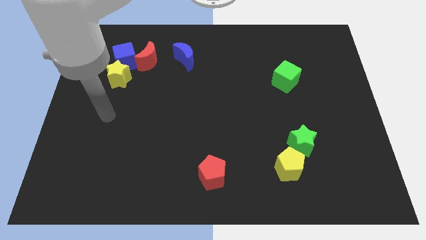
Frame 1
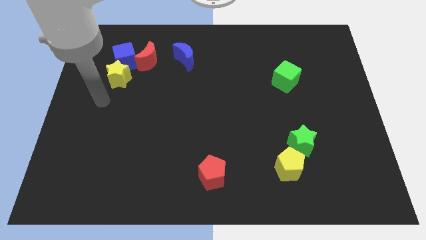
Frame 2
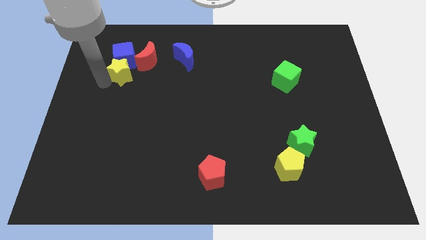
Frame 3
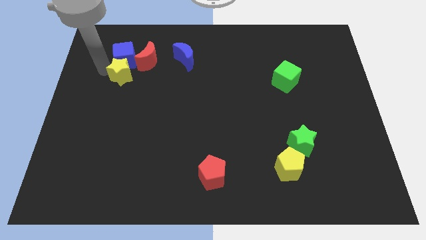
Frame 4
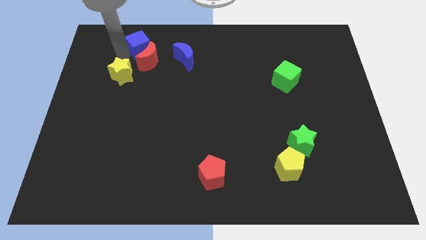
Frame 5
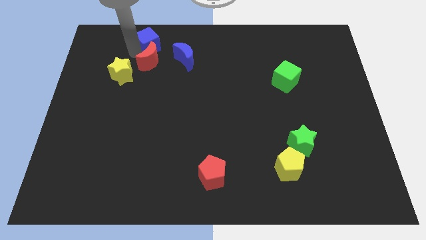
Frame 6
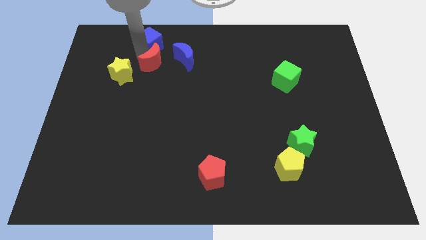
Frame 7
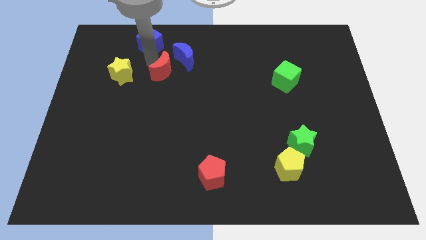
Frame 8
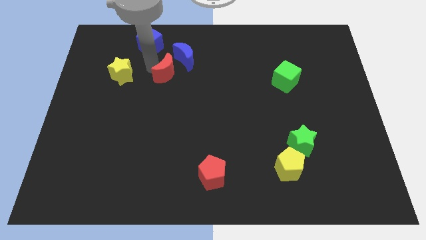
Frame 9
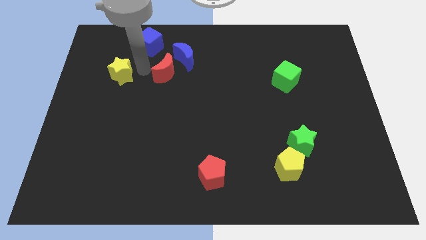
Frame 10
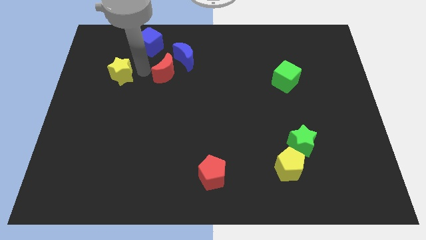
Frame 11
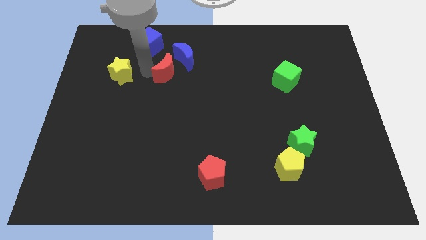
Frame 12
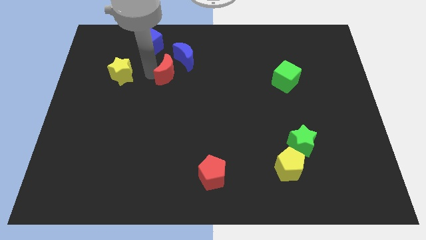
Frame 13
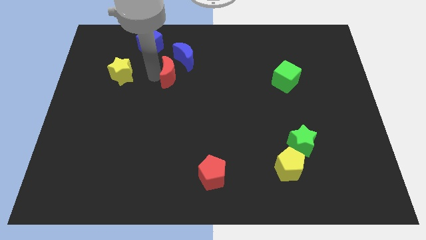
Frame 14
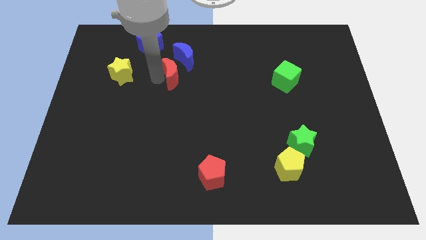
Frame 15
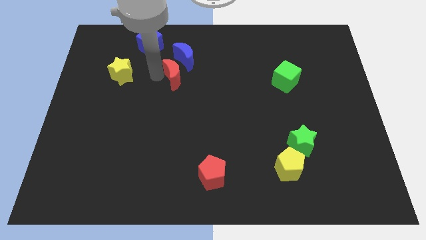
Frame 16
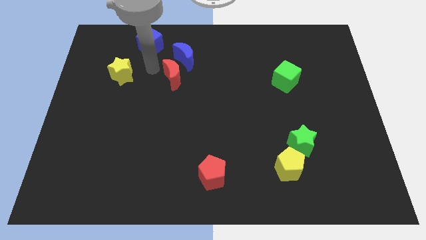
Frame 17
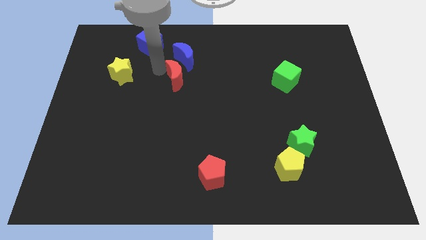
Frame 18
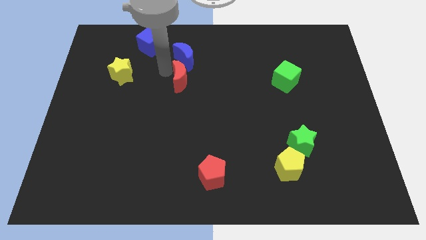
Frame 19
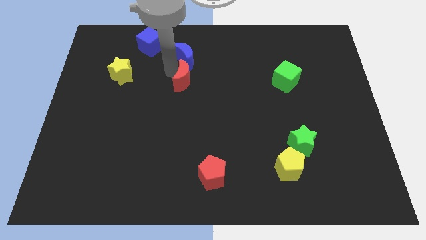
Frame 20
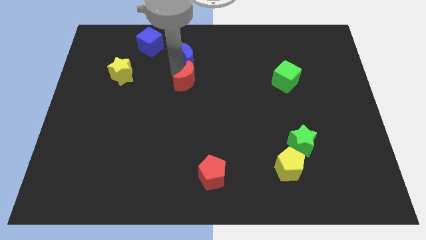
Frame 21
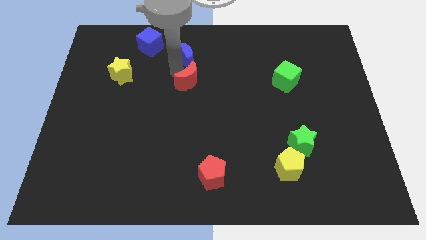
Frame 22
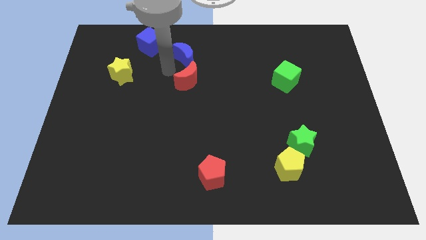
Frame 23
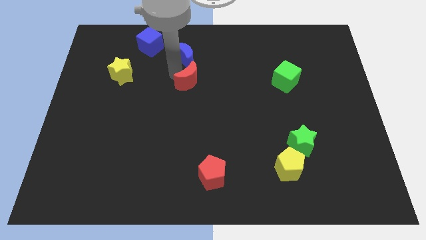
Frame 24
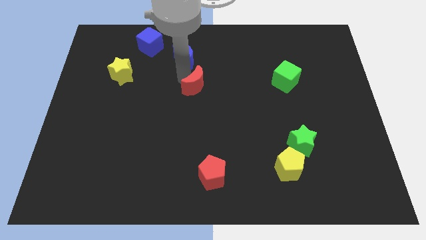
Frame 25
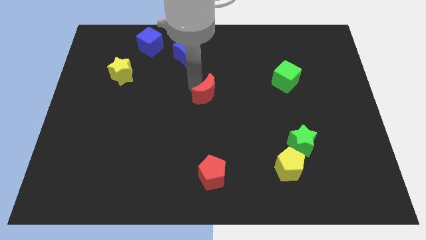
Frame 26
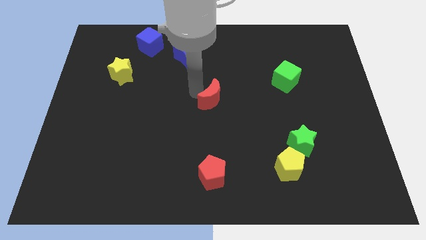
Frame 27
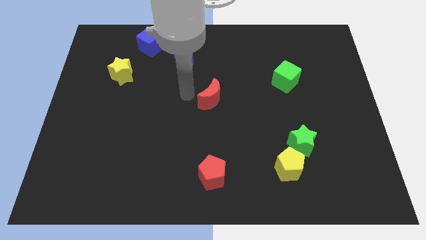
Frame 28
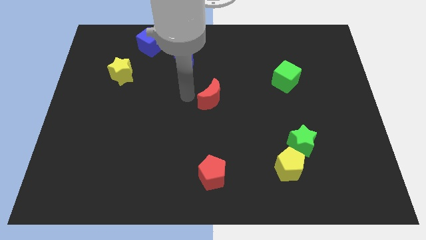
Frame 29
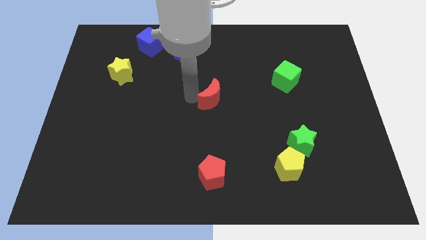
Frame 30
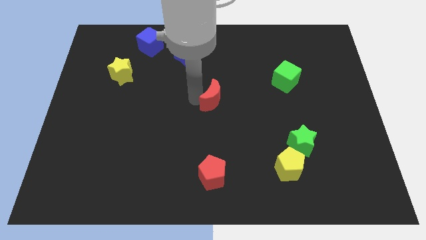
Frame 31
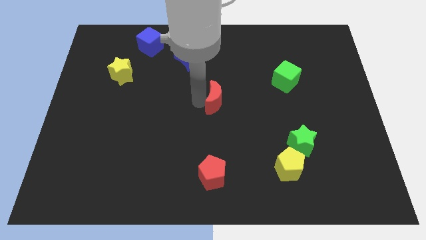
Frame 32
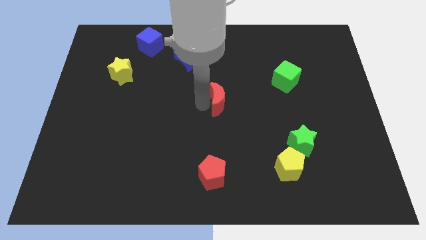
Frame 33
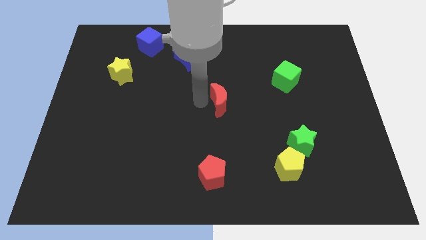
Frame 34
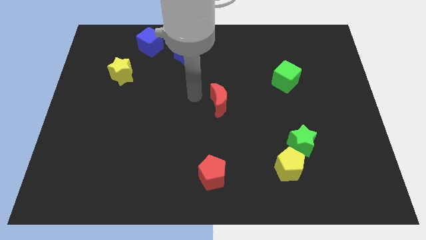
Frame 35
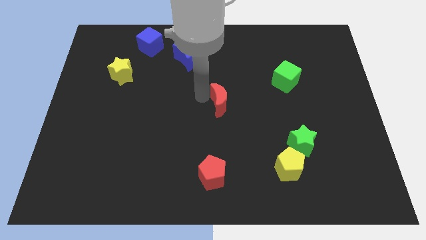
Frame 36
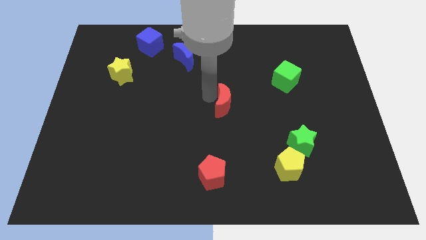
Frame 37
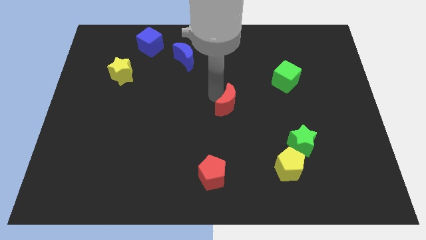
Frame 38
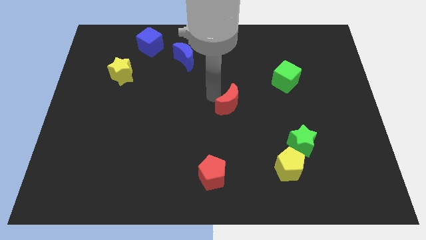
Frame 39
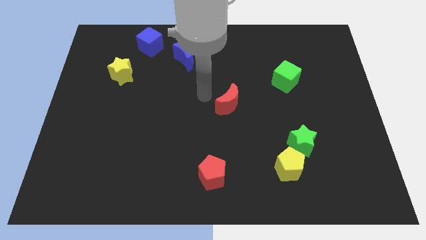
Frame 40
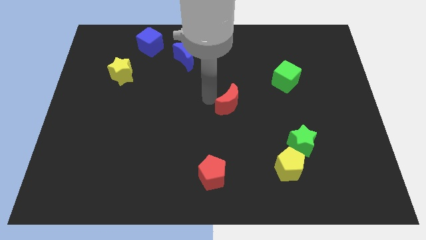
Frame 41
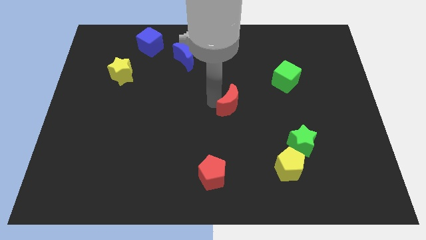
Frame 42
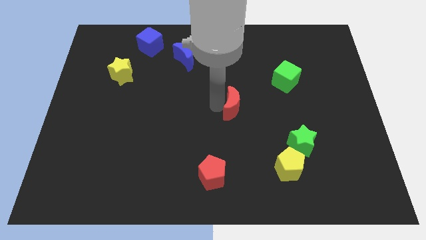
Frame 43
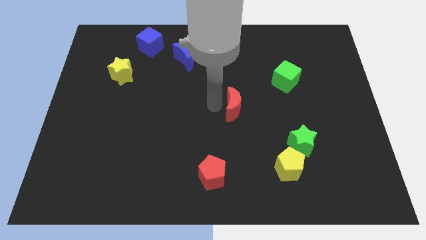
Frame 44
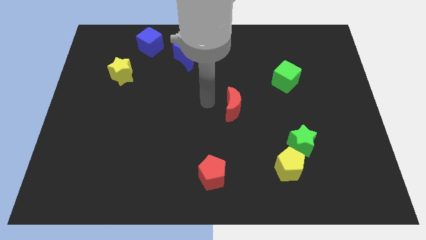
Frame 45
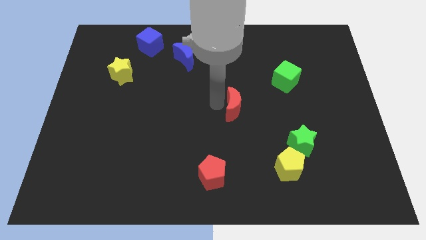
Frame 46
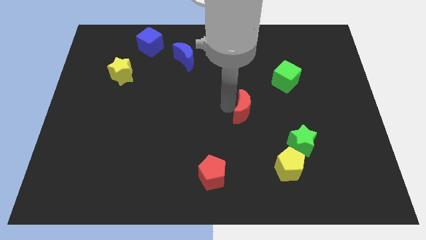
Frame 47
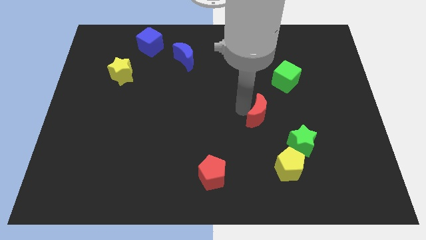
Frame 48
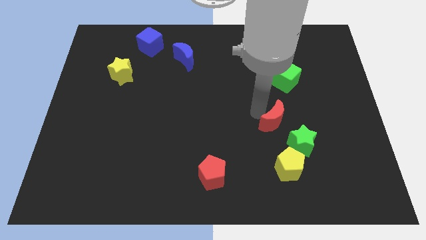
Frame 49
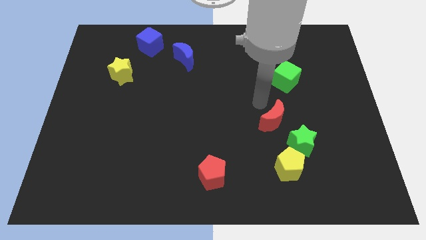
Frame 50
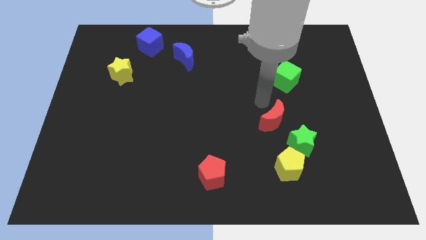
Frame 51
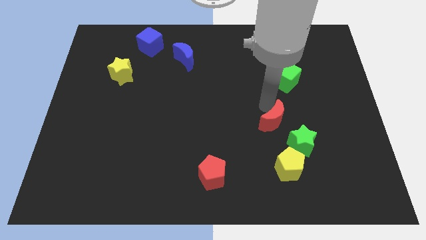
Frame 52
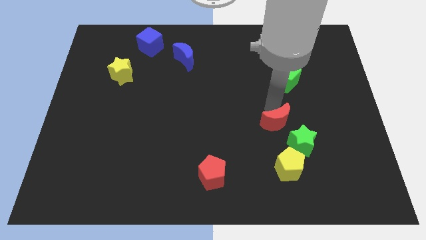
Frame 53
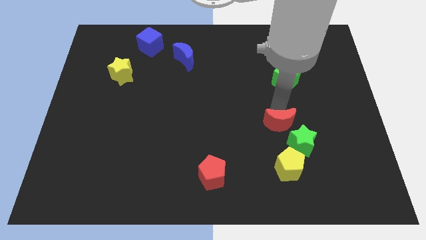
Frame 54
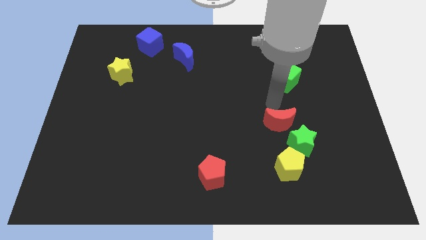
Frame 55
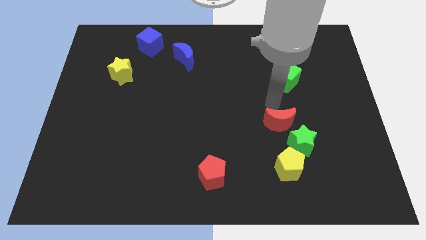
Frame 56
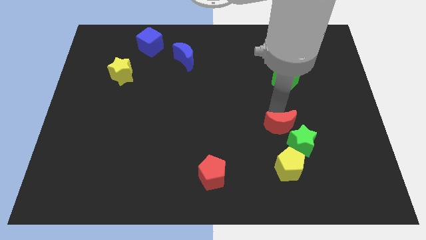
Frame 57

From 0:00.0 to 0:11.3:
move the red moon next to the green star

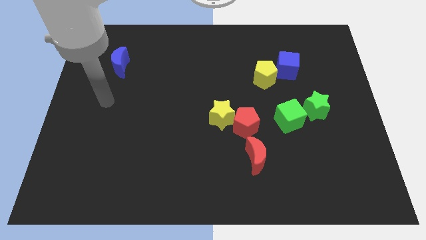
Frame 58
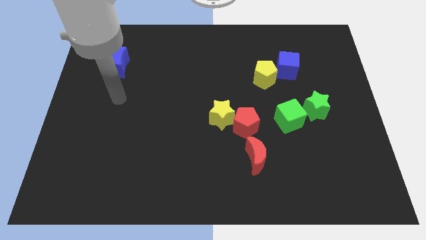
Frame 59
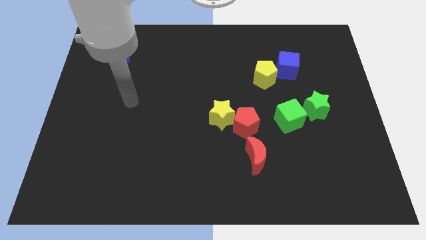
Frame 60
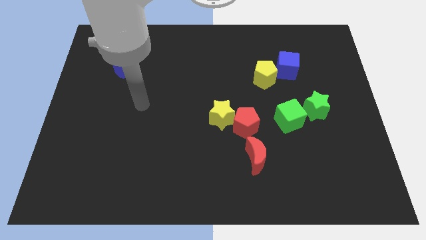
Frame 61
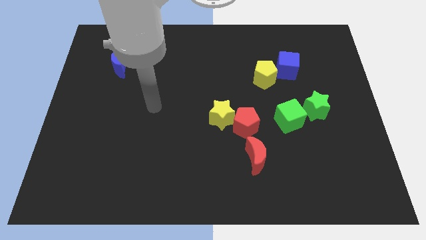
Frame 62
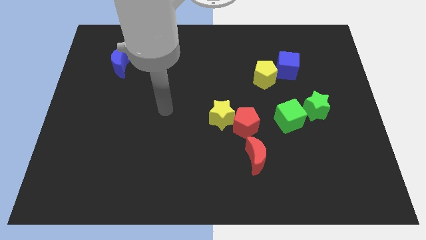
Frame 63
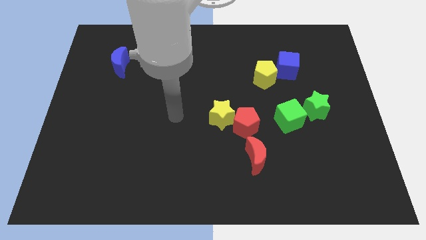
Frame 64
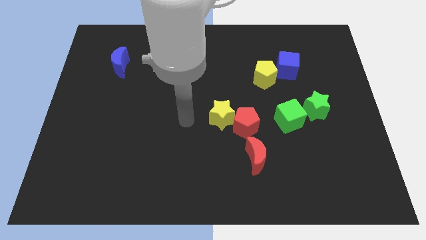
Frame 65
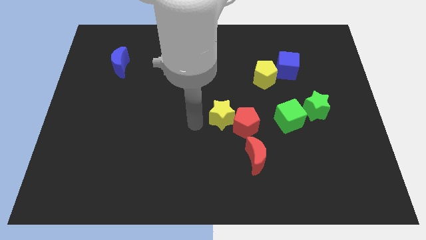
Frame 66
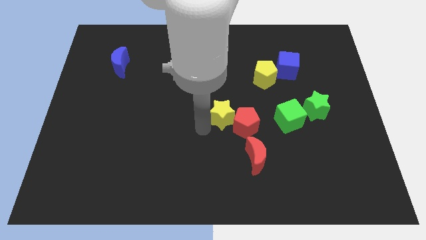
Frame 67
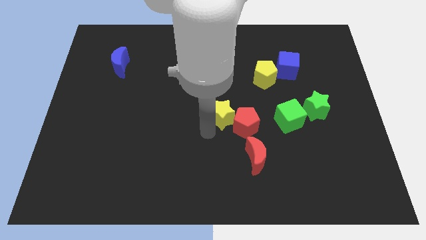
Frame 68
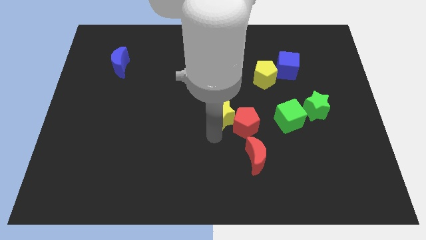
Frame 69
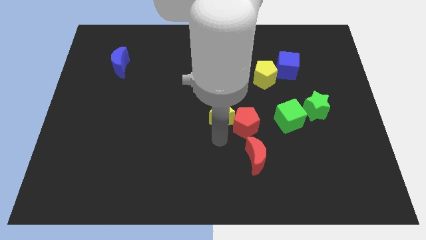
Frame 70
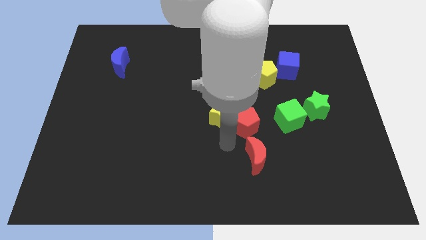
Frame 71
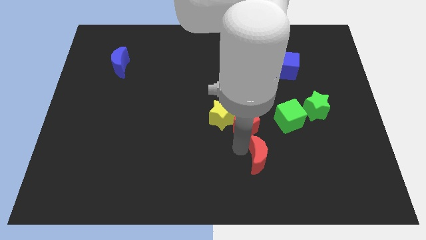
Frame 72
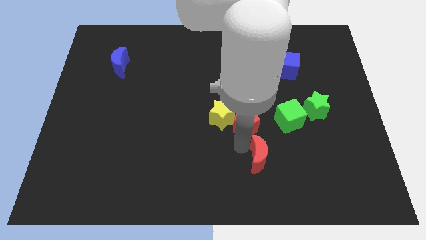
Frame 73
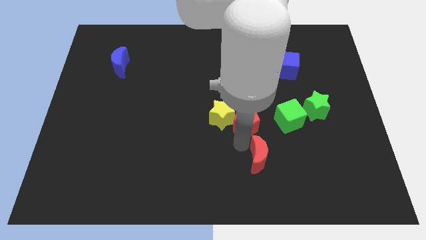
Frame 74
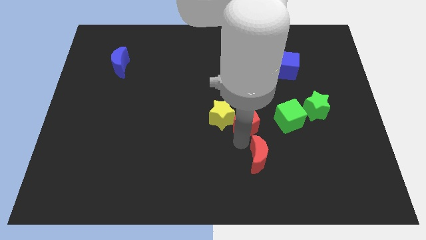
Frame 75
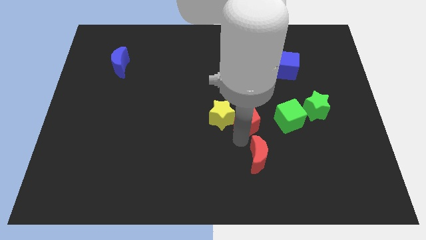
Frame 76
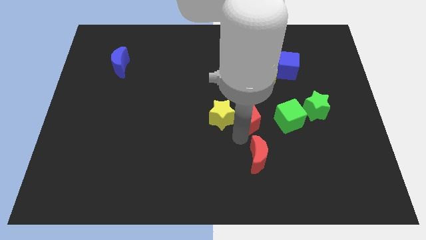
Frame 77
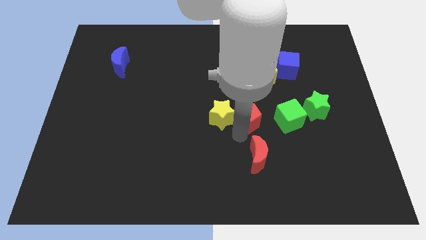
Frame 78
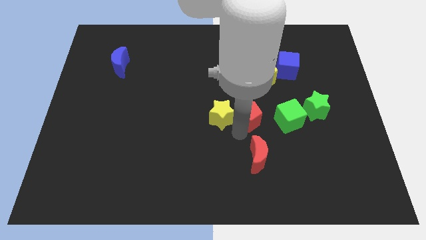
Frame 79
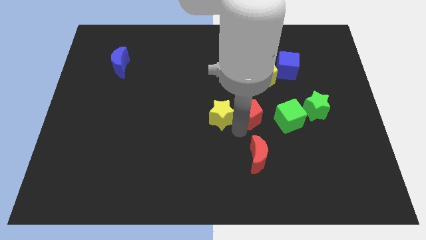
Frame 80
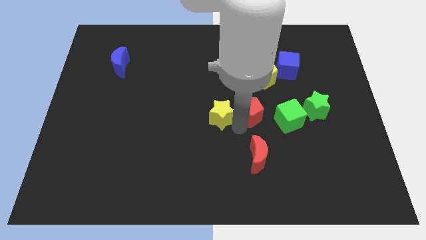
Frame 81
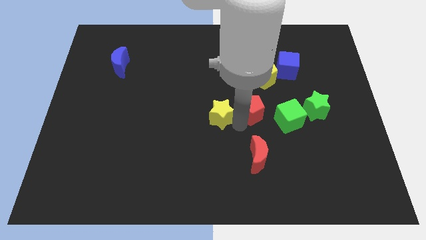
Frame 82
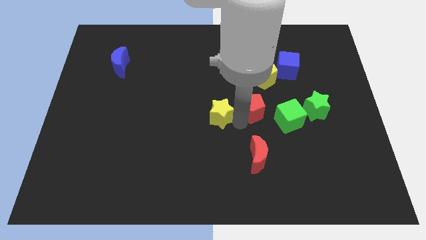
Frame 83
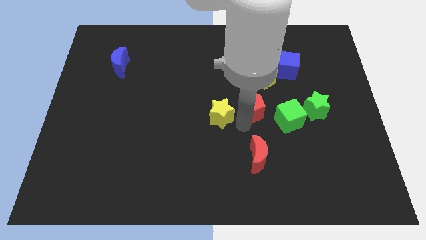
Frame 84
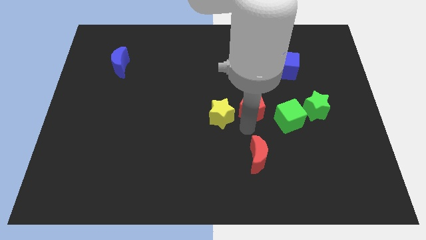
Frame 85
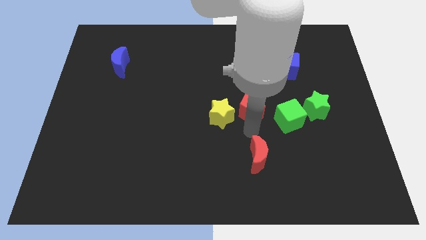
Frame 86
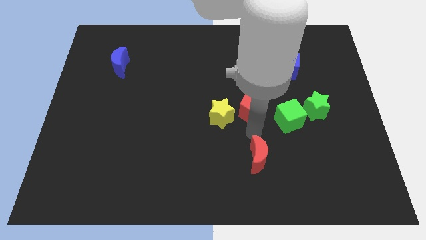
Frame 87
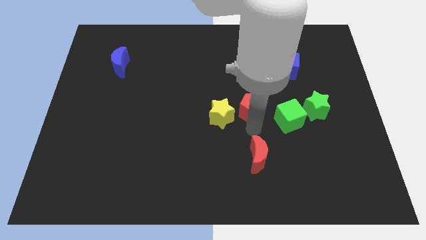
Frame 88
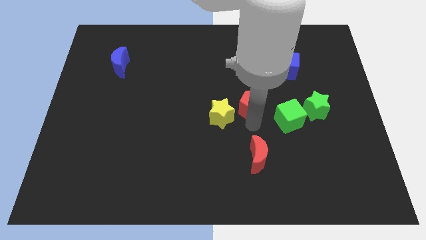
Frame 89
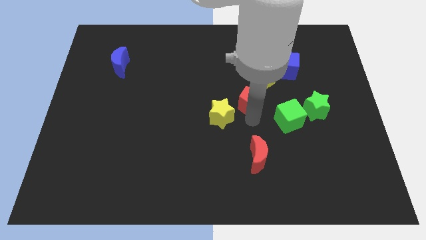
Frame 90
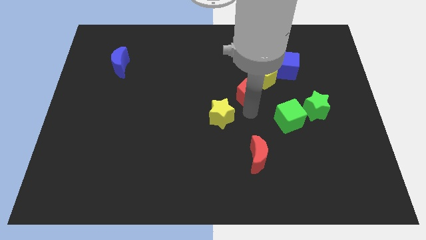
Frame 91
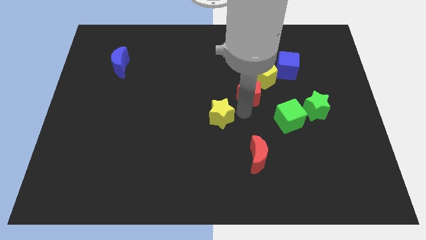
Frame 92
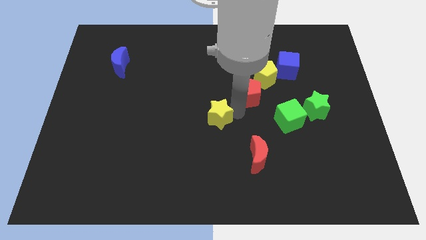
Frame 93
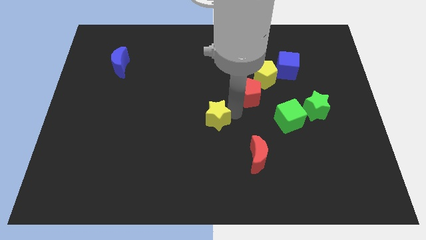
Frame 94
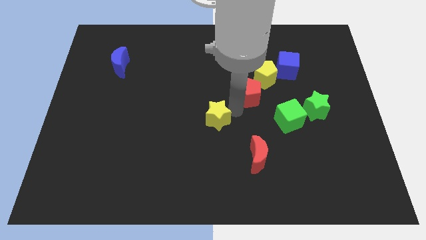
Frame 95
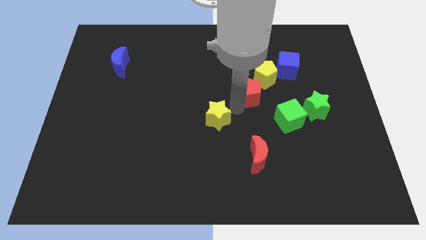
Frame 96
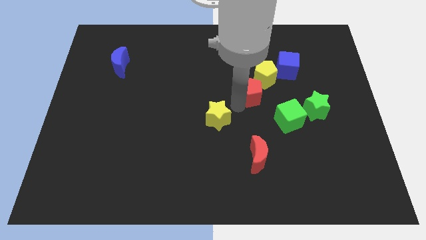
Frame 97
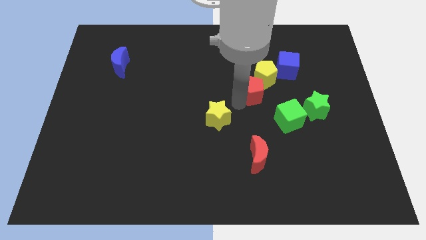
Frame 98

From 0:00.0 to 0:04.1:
put the red pentagon next to the yellow pentagon
